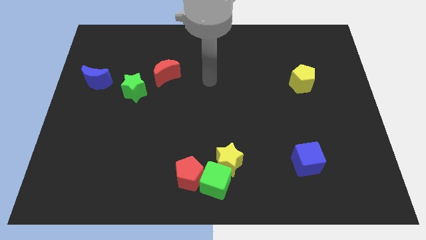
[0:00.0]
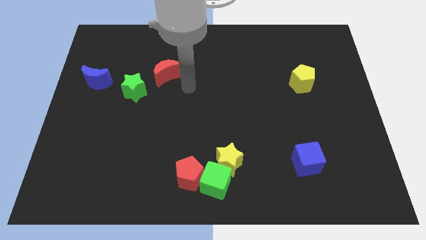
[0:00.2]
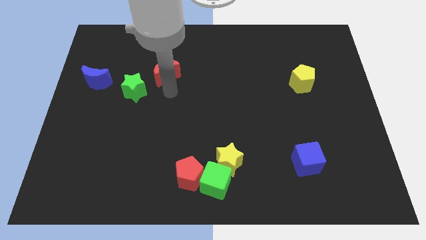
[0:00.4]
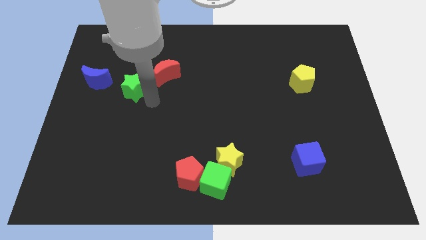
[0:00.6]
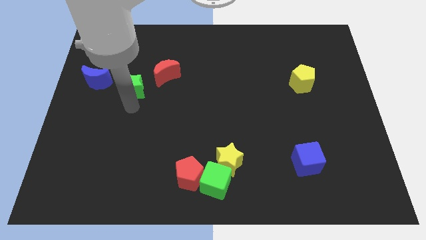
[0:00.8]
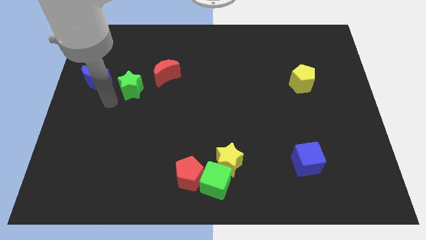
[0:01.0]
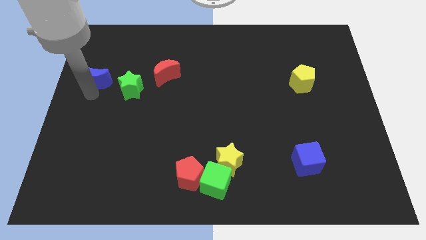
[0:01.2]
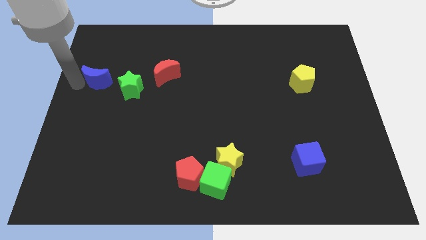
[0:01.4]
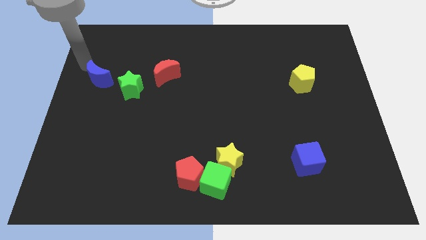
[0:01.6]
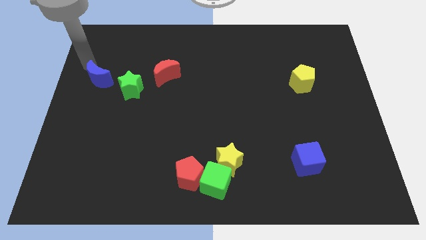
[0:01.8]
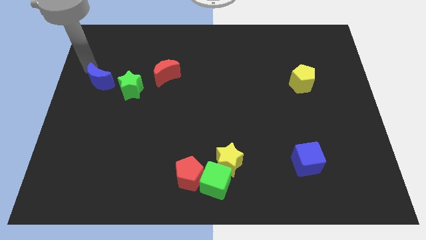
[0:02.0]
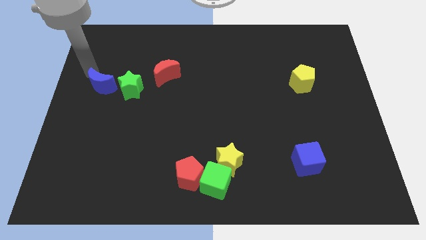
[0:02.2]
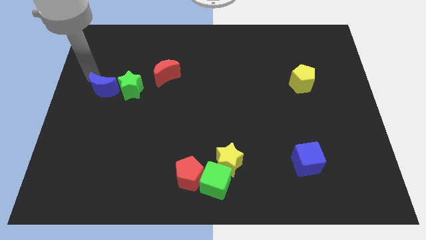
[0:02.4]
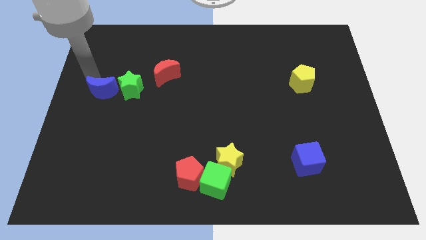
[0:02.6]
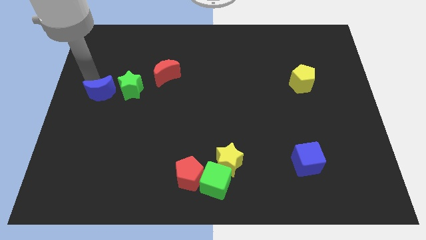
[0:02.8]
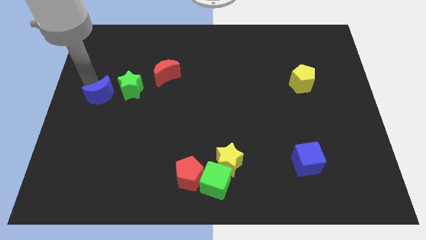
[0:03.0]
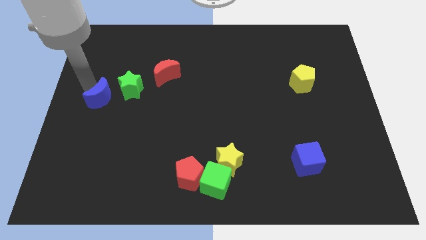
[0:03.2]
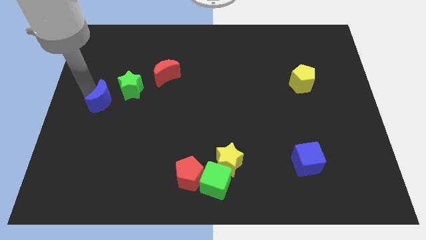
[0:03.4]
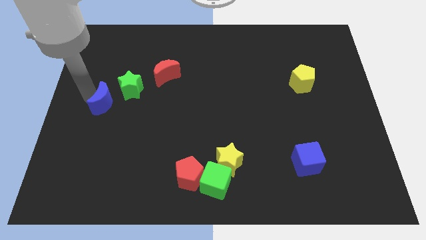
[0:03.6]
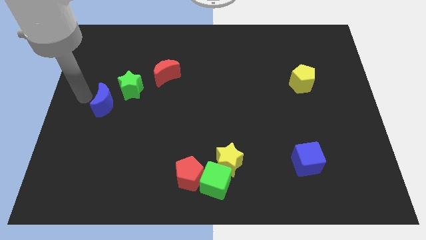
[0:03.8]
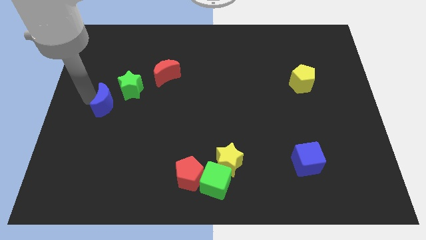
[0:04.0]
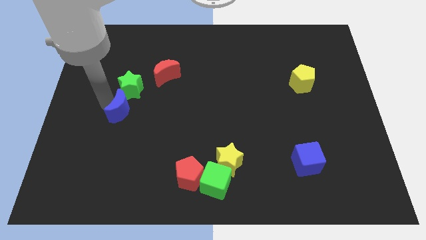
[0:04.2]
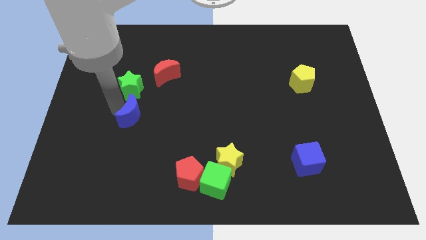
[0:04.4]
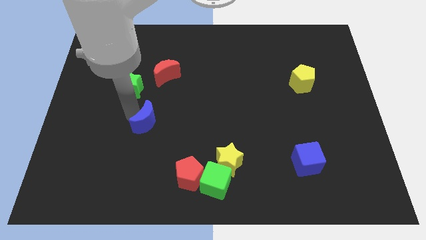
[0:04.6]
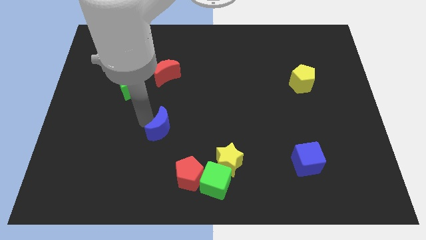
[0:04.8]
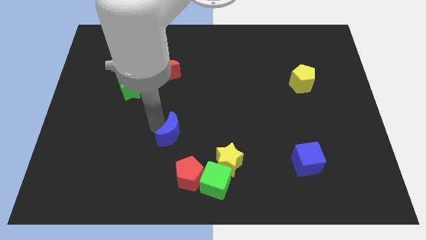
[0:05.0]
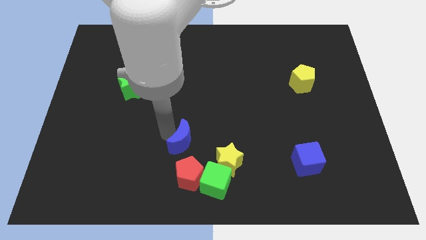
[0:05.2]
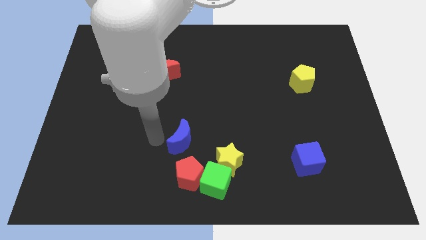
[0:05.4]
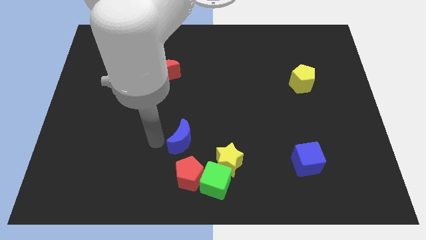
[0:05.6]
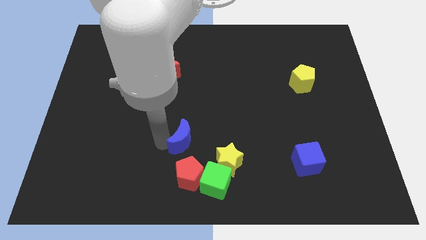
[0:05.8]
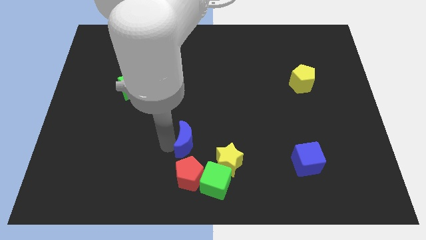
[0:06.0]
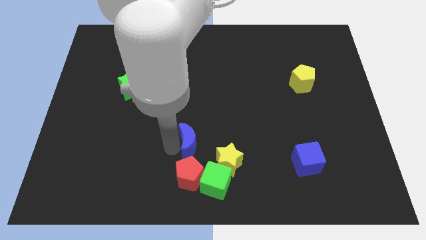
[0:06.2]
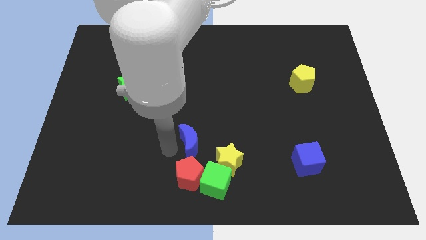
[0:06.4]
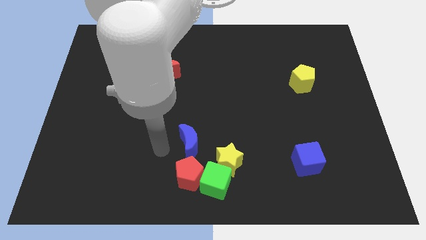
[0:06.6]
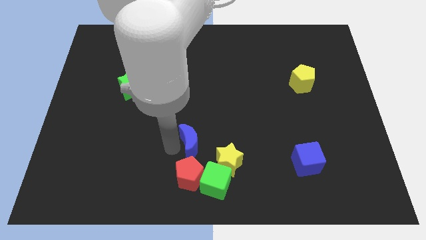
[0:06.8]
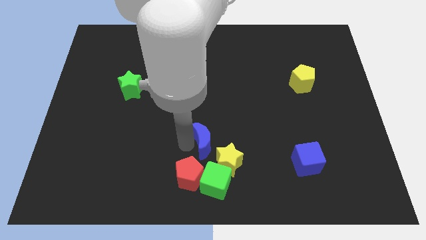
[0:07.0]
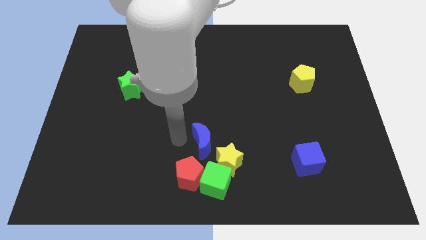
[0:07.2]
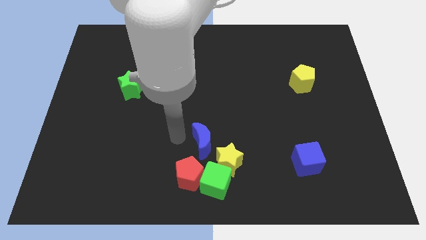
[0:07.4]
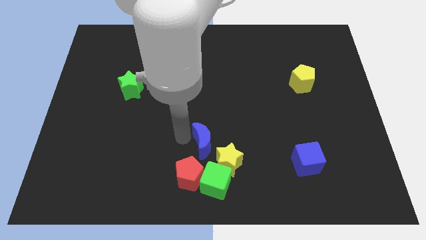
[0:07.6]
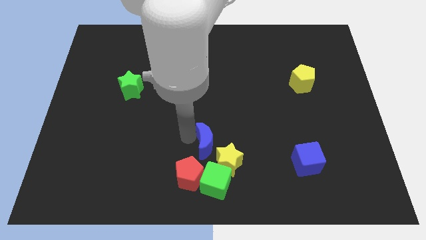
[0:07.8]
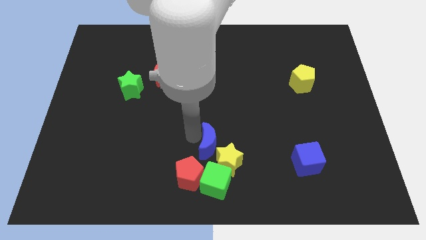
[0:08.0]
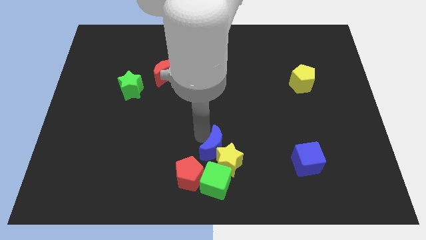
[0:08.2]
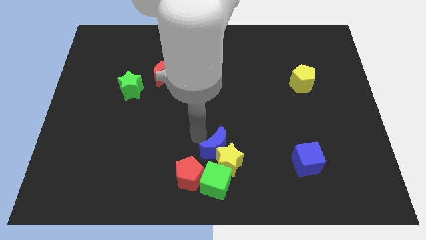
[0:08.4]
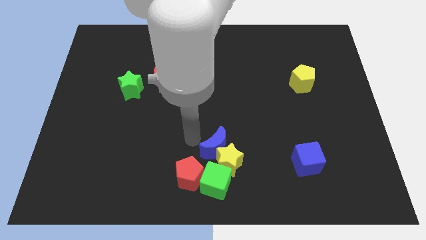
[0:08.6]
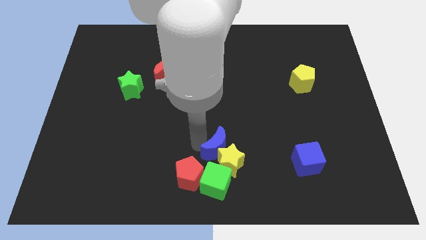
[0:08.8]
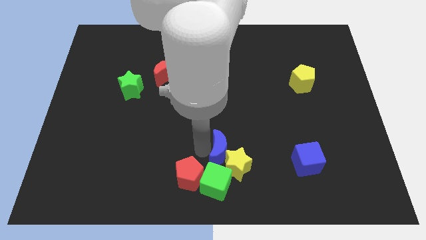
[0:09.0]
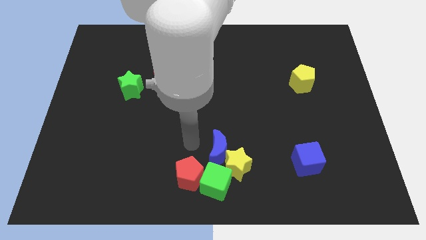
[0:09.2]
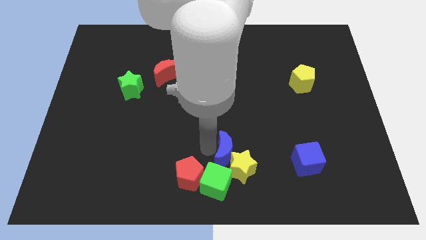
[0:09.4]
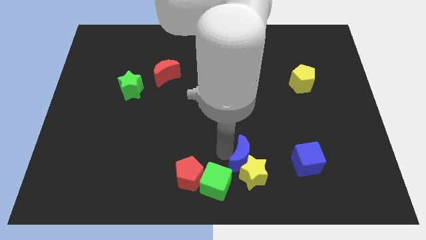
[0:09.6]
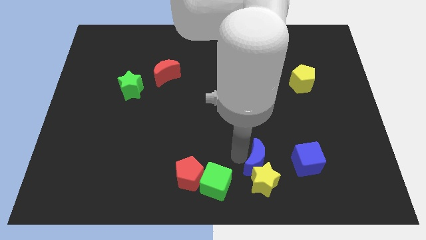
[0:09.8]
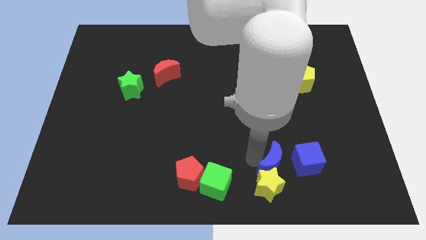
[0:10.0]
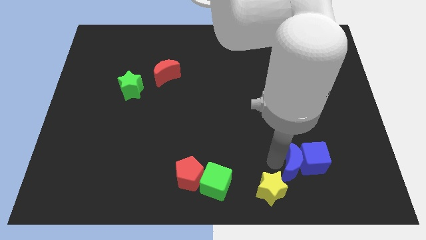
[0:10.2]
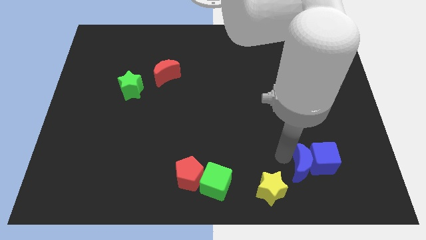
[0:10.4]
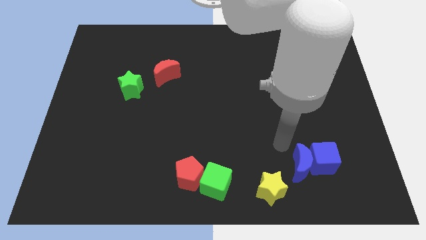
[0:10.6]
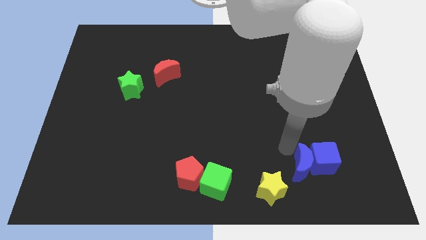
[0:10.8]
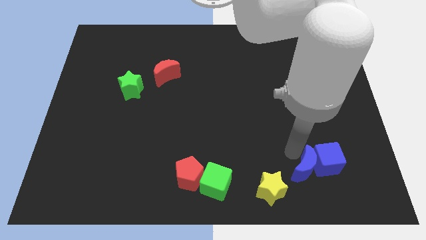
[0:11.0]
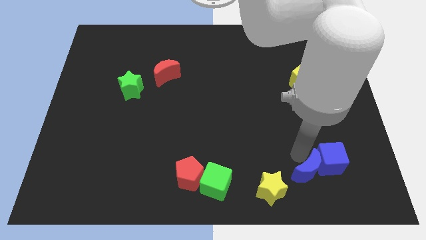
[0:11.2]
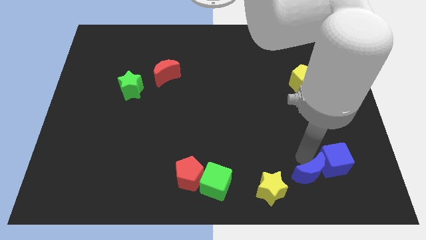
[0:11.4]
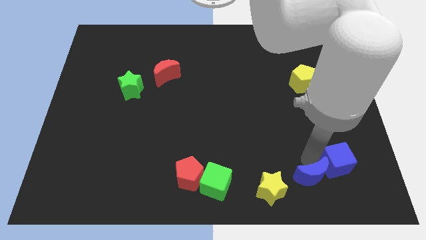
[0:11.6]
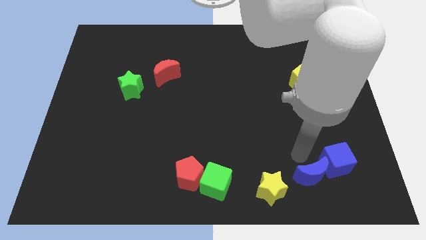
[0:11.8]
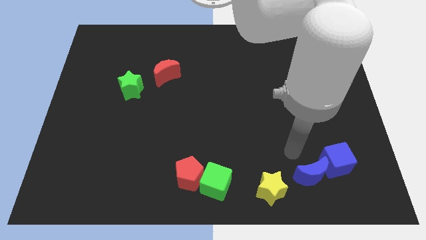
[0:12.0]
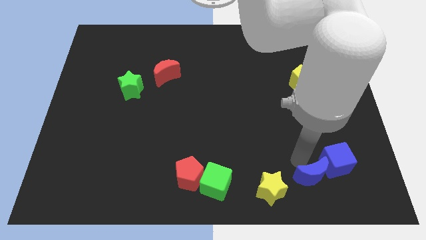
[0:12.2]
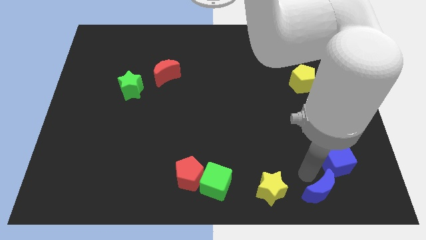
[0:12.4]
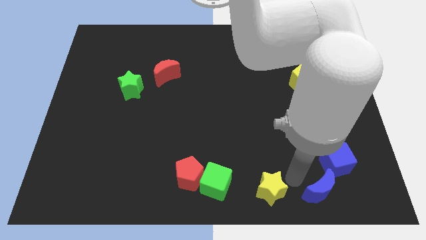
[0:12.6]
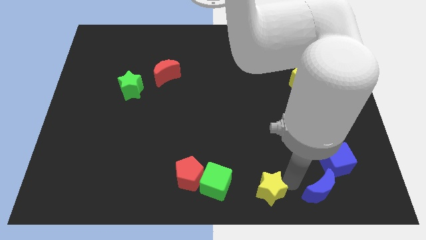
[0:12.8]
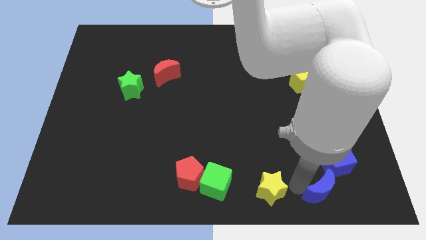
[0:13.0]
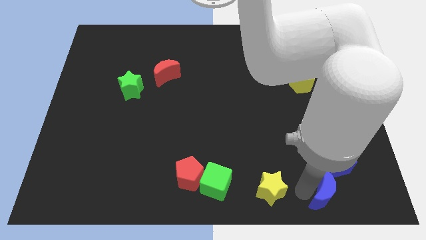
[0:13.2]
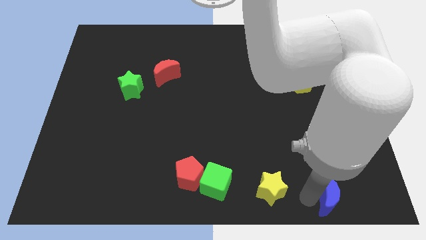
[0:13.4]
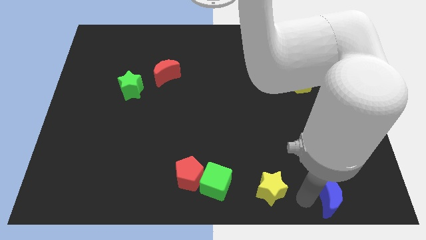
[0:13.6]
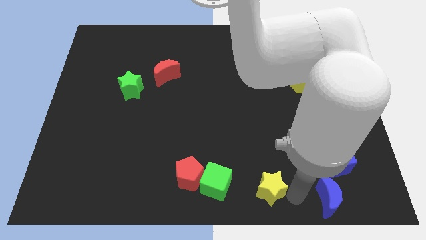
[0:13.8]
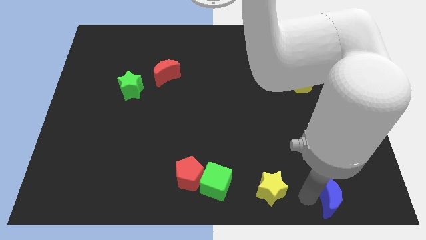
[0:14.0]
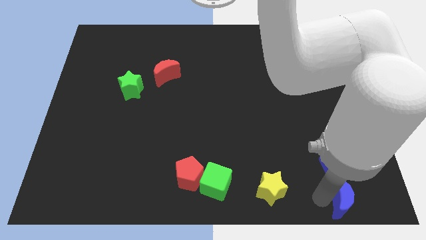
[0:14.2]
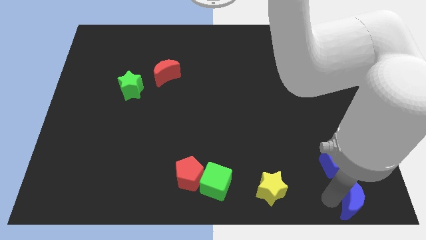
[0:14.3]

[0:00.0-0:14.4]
put the blue moon to the bottom right
